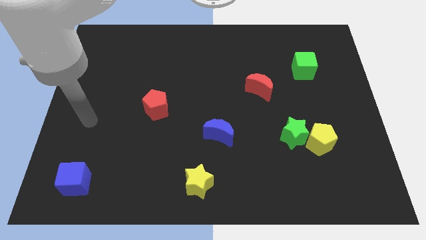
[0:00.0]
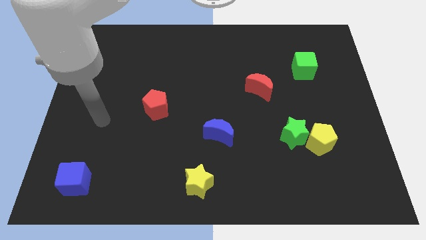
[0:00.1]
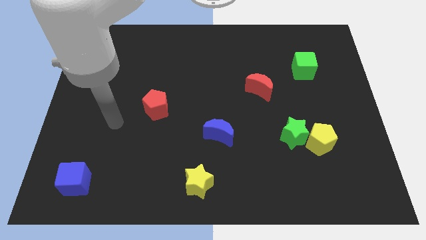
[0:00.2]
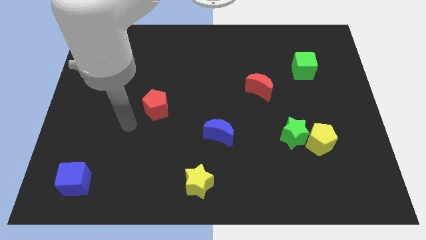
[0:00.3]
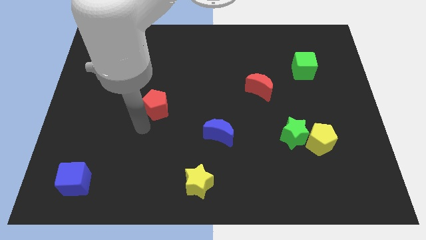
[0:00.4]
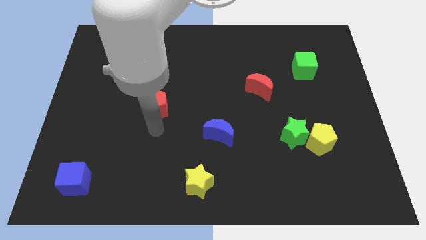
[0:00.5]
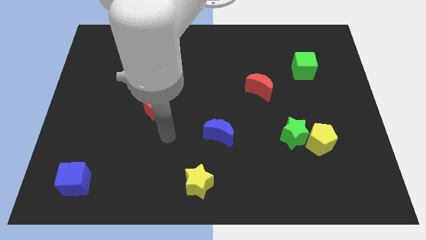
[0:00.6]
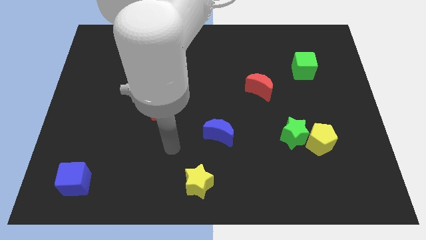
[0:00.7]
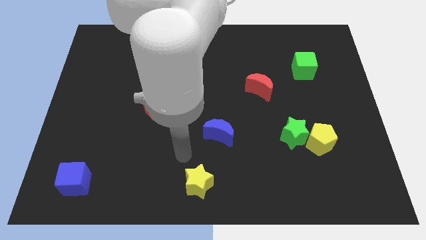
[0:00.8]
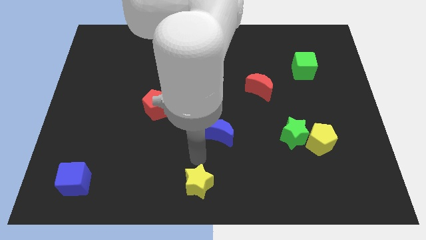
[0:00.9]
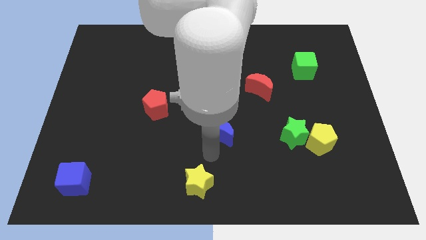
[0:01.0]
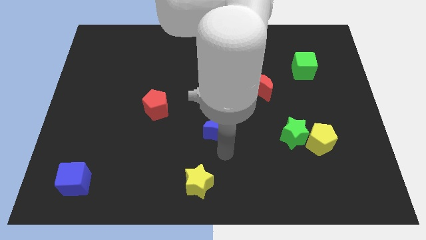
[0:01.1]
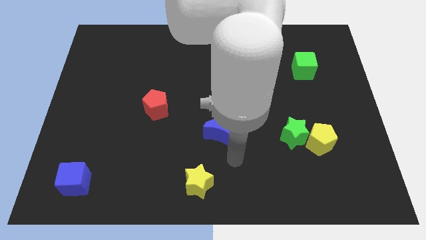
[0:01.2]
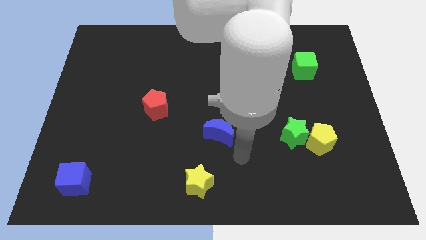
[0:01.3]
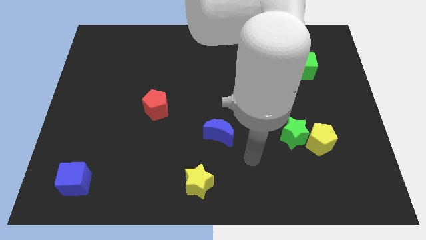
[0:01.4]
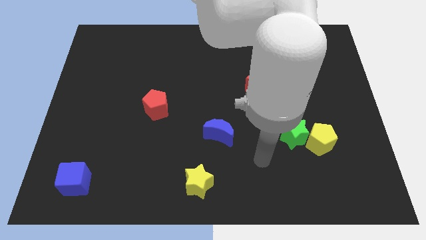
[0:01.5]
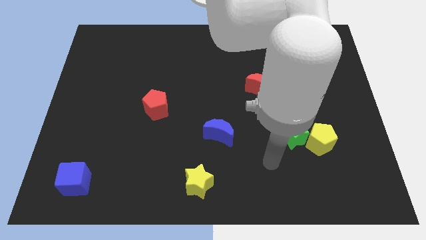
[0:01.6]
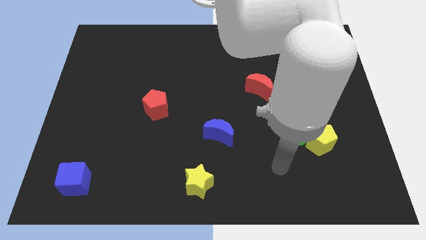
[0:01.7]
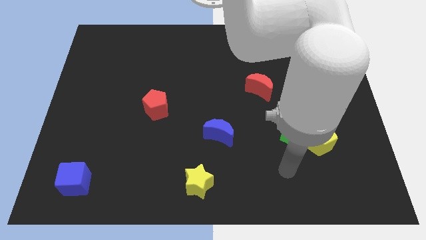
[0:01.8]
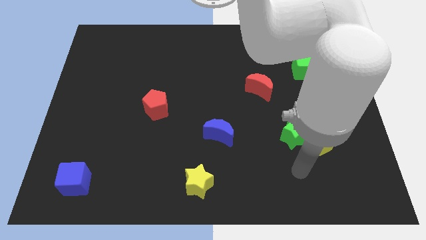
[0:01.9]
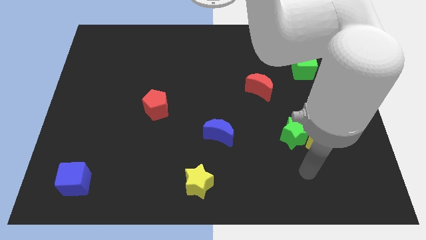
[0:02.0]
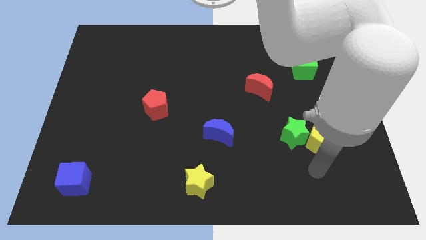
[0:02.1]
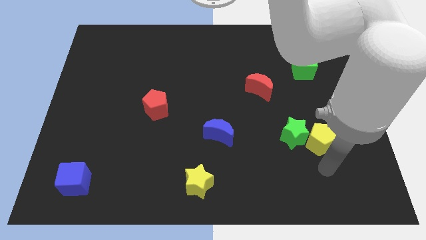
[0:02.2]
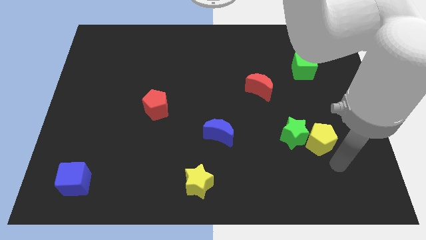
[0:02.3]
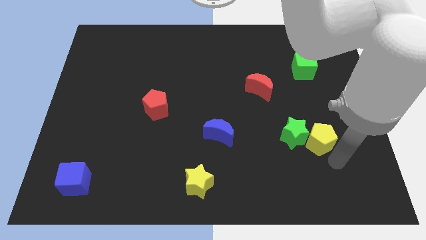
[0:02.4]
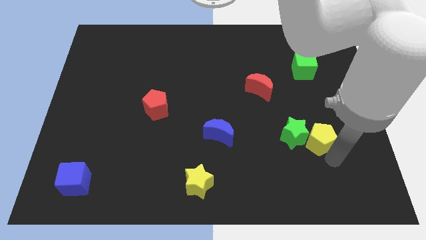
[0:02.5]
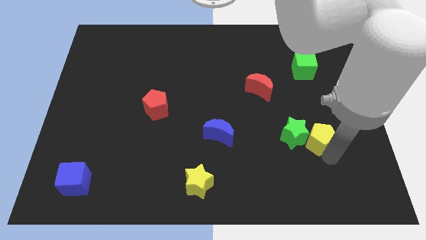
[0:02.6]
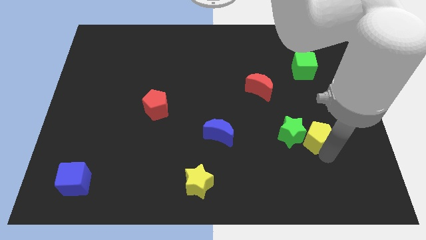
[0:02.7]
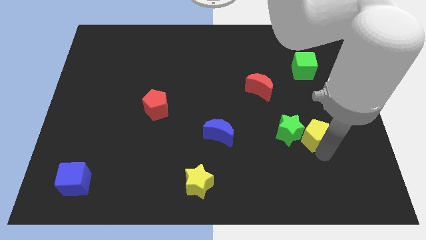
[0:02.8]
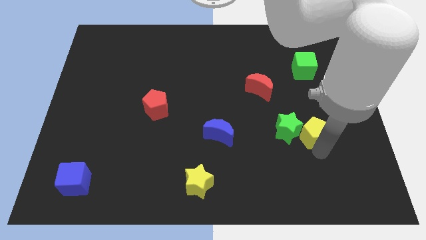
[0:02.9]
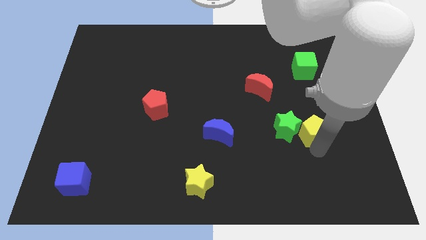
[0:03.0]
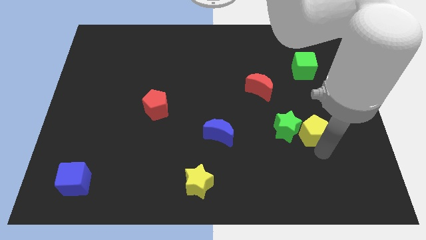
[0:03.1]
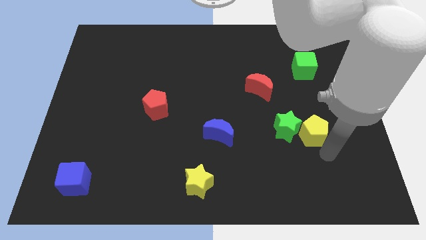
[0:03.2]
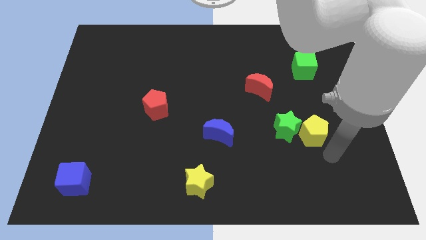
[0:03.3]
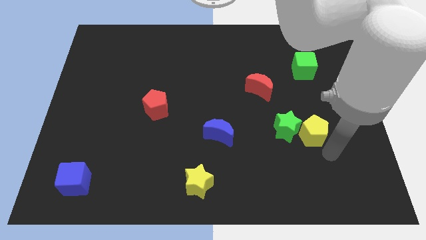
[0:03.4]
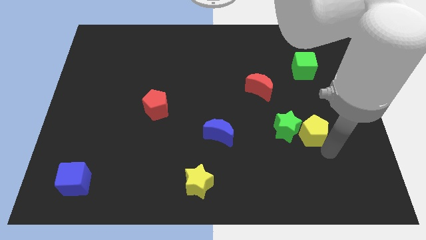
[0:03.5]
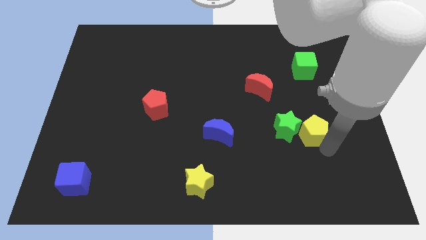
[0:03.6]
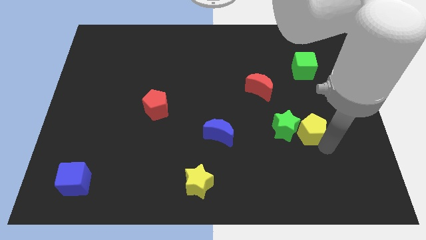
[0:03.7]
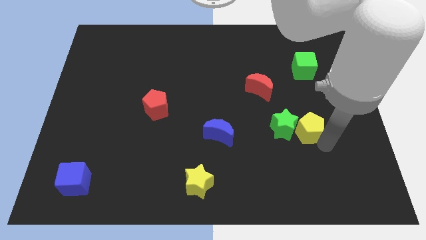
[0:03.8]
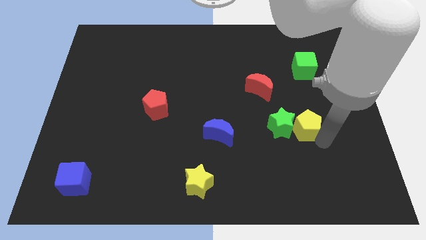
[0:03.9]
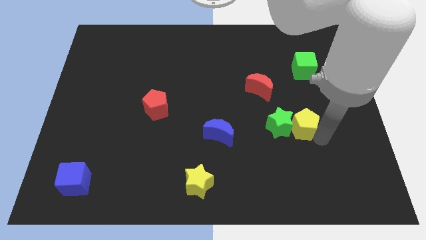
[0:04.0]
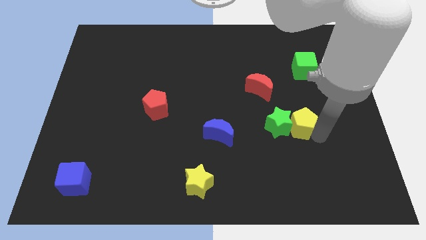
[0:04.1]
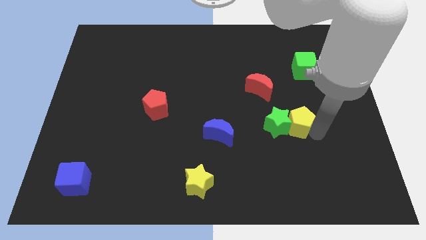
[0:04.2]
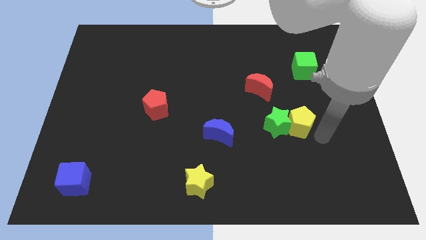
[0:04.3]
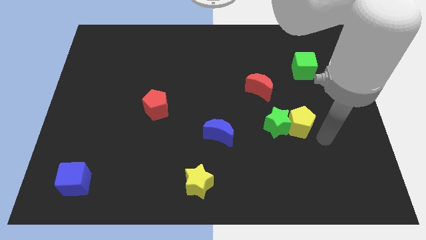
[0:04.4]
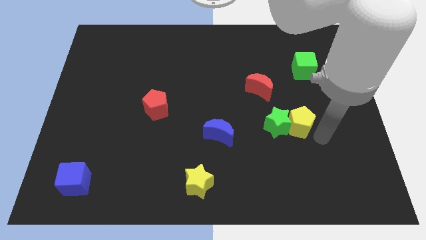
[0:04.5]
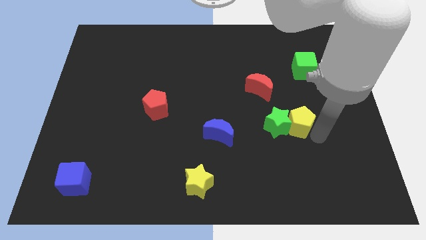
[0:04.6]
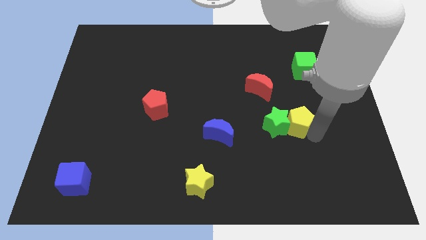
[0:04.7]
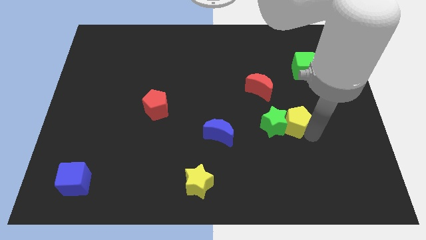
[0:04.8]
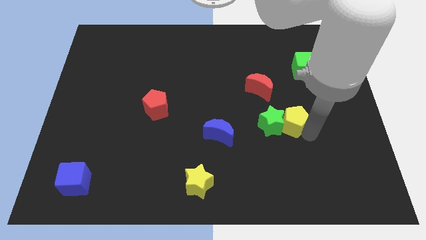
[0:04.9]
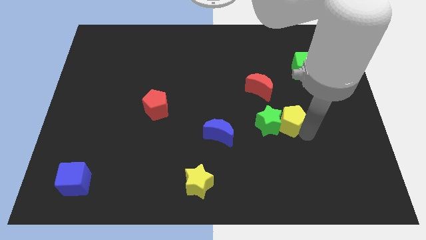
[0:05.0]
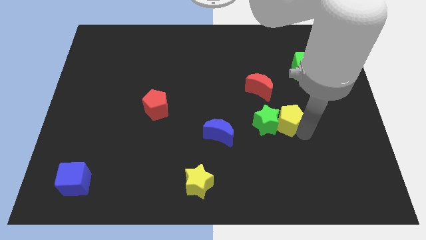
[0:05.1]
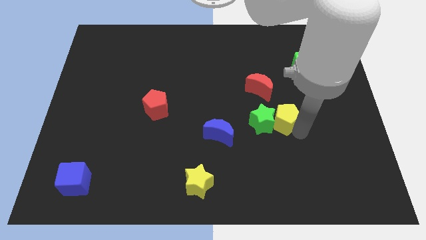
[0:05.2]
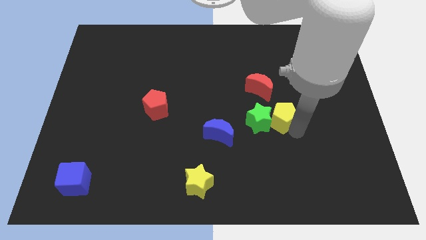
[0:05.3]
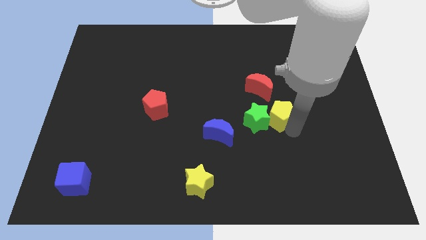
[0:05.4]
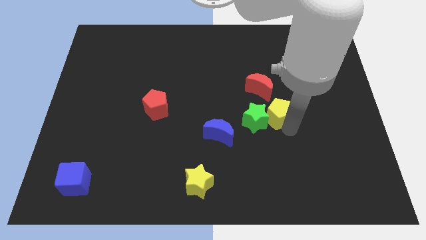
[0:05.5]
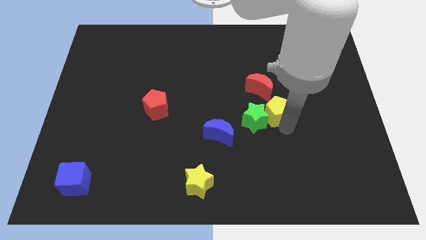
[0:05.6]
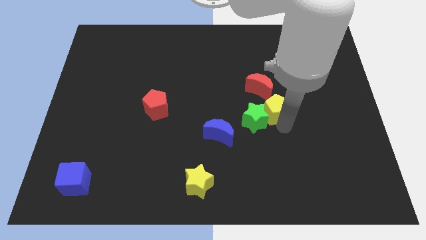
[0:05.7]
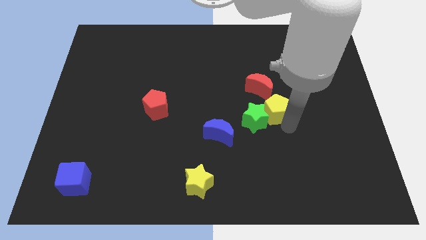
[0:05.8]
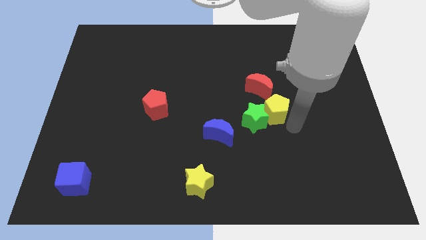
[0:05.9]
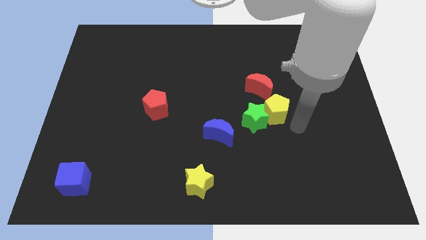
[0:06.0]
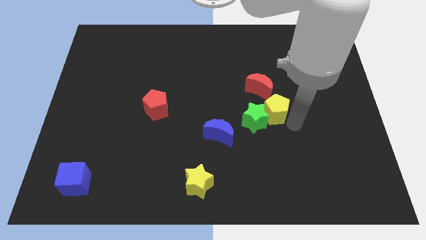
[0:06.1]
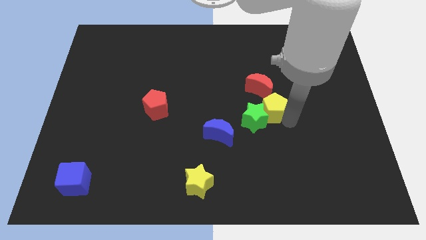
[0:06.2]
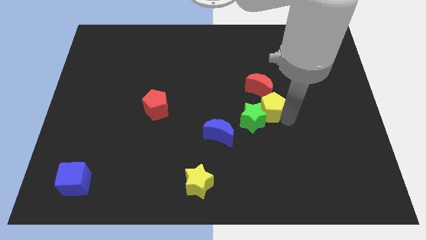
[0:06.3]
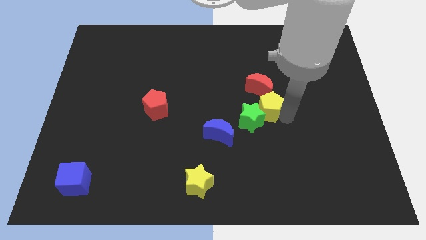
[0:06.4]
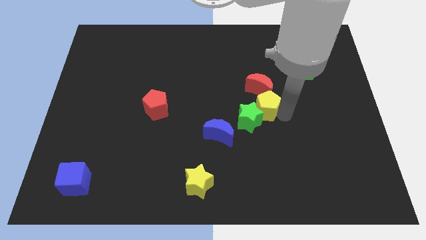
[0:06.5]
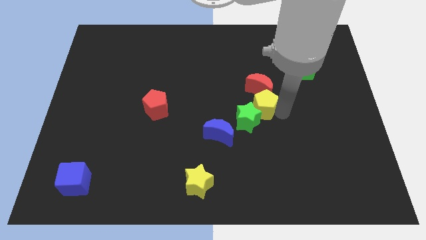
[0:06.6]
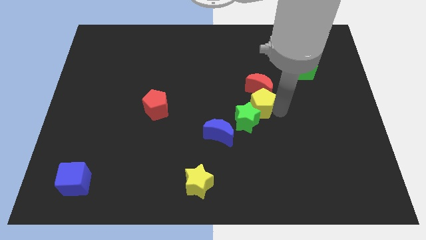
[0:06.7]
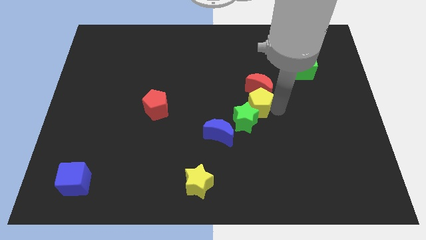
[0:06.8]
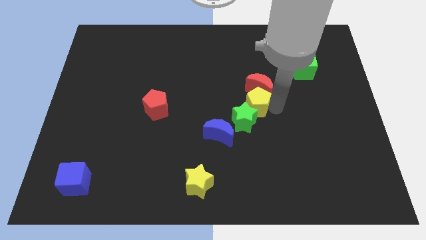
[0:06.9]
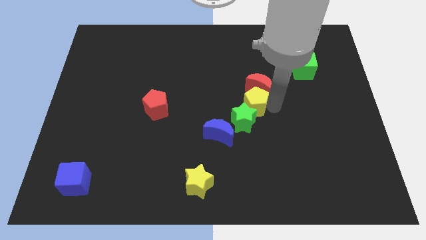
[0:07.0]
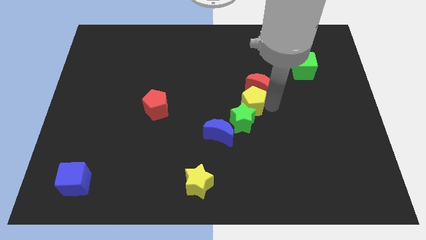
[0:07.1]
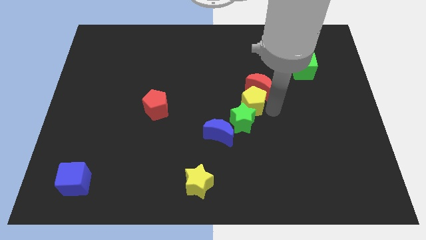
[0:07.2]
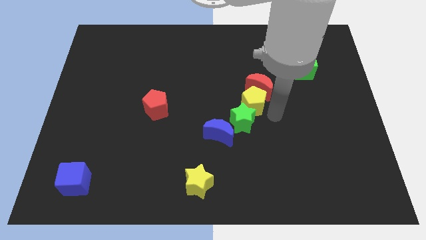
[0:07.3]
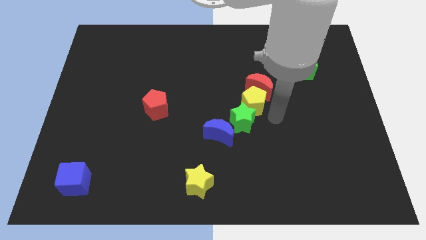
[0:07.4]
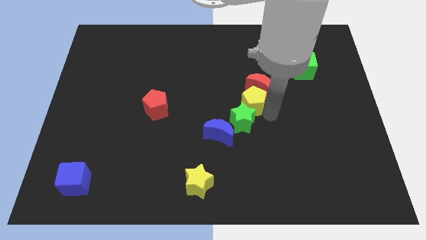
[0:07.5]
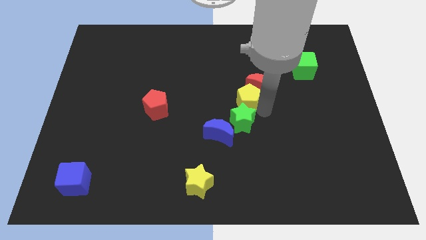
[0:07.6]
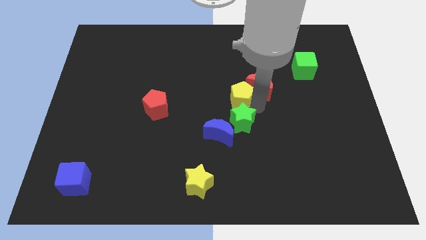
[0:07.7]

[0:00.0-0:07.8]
push the yellow pentagon up and left

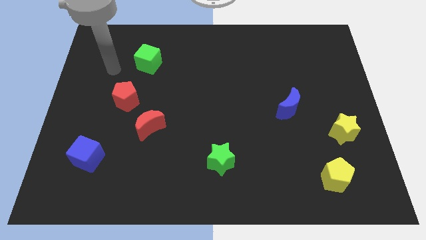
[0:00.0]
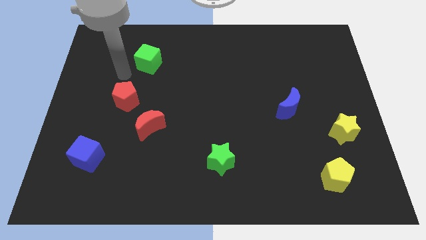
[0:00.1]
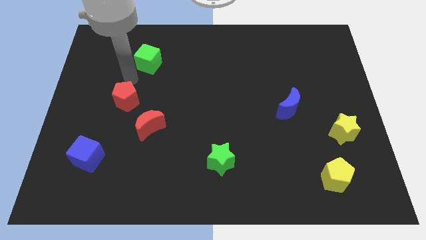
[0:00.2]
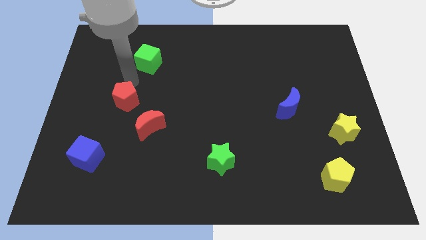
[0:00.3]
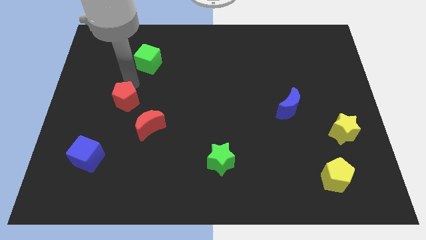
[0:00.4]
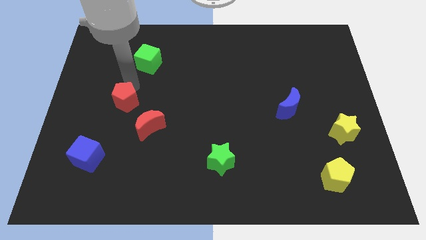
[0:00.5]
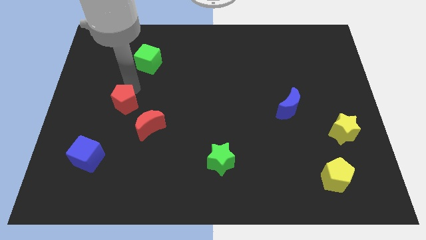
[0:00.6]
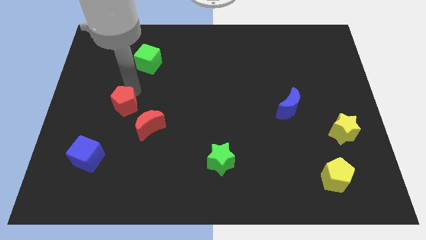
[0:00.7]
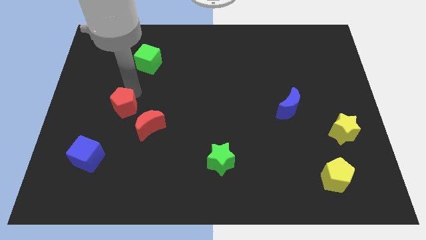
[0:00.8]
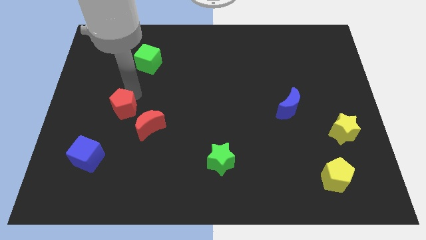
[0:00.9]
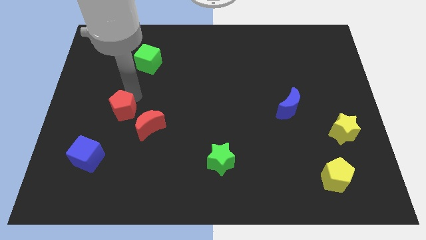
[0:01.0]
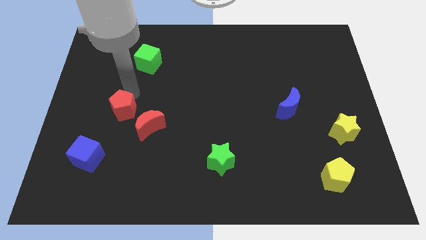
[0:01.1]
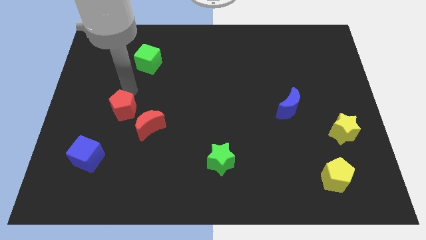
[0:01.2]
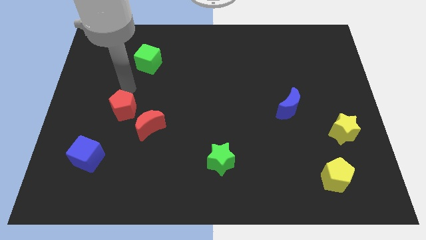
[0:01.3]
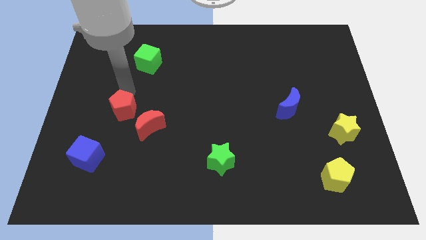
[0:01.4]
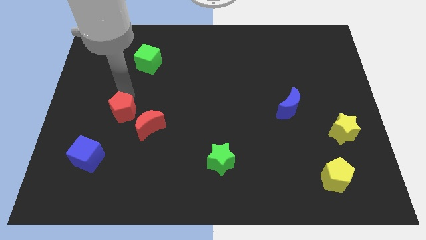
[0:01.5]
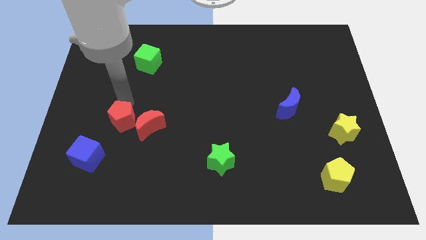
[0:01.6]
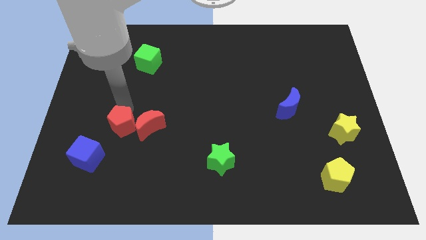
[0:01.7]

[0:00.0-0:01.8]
slightly slide the red pentagon down
